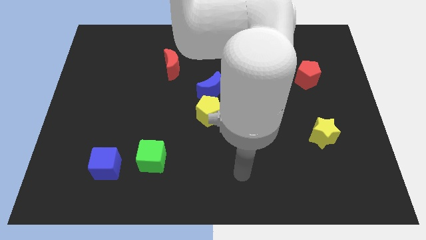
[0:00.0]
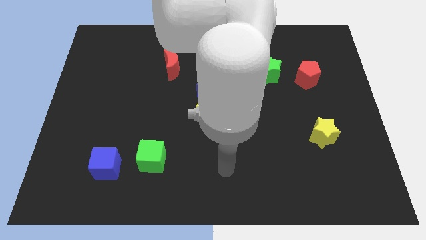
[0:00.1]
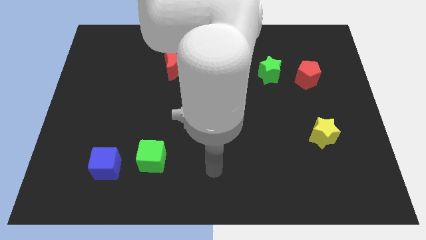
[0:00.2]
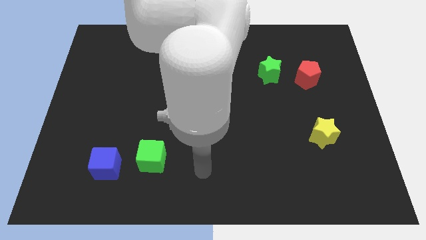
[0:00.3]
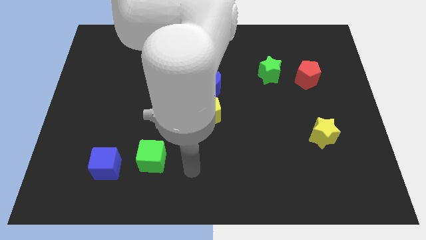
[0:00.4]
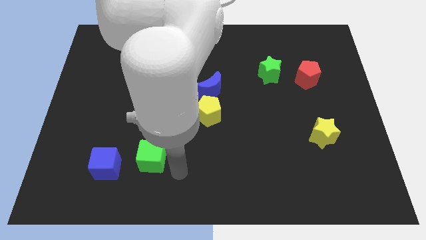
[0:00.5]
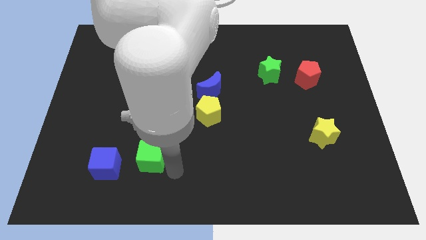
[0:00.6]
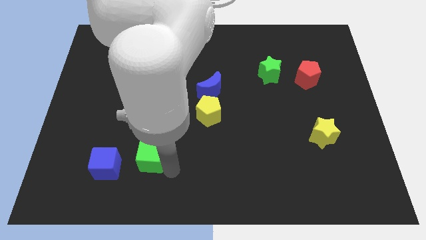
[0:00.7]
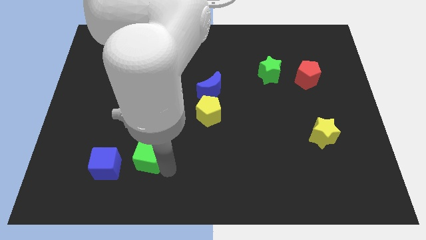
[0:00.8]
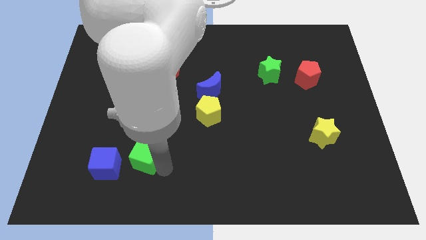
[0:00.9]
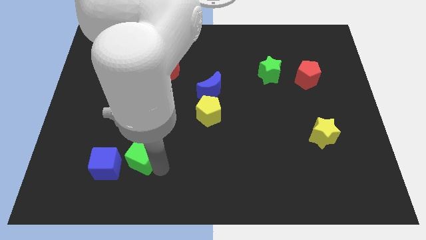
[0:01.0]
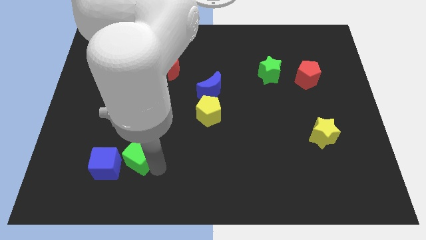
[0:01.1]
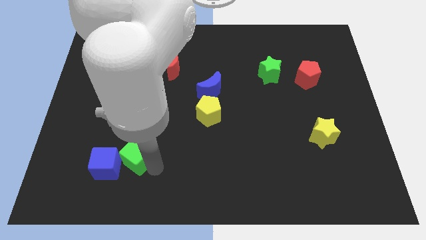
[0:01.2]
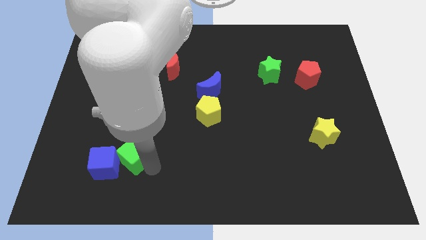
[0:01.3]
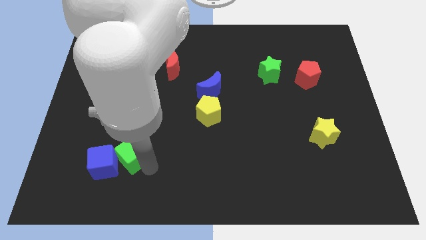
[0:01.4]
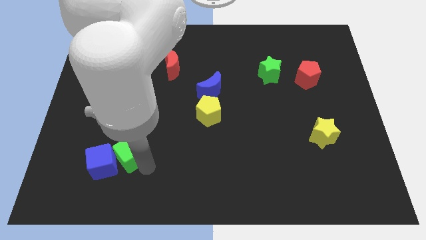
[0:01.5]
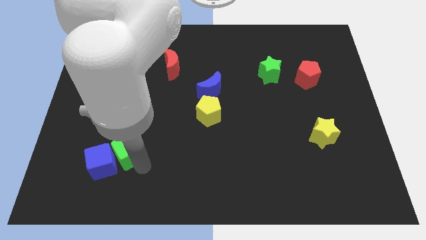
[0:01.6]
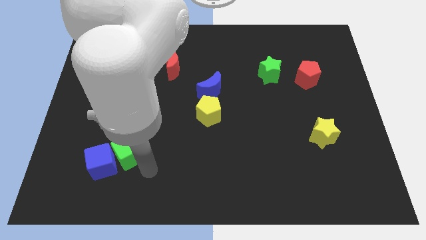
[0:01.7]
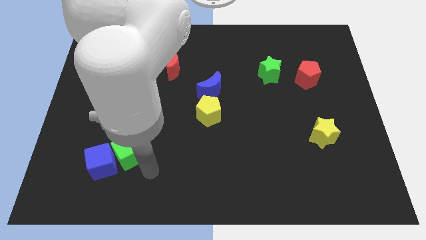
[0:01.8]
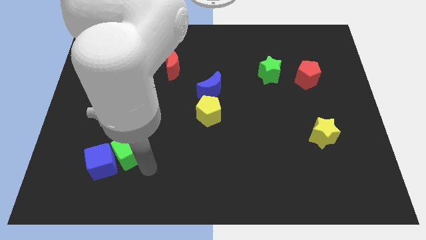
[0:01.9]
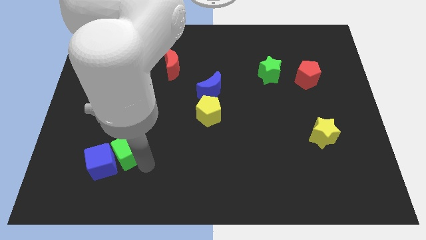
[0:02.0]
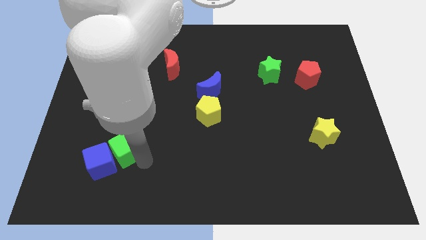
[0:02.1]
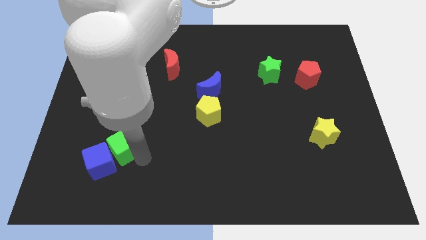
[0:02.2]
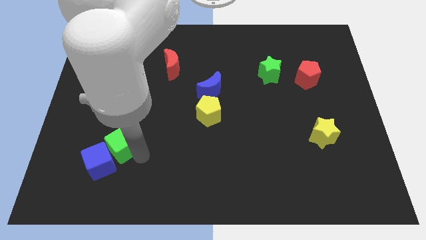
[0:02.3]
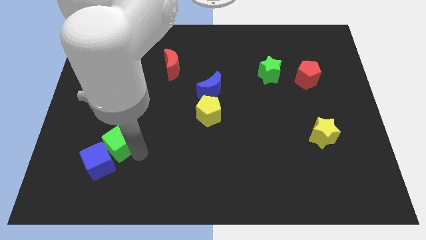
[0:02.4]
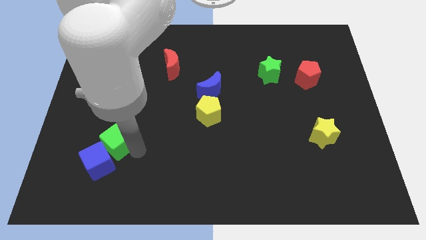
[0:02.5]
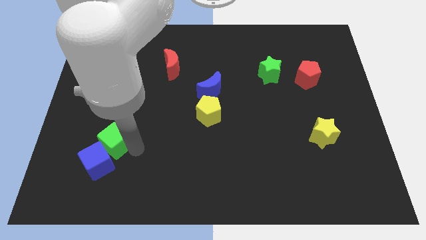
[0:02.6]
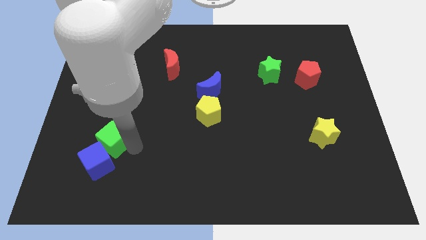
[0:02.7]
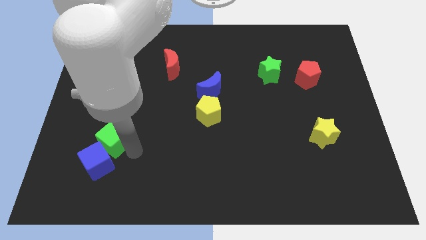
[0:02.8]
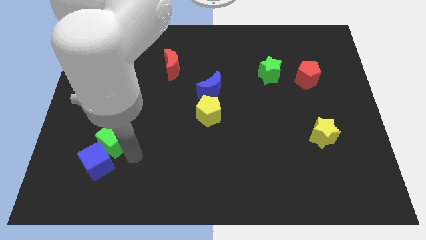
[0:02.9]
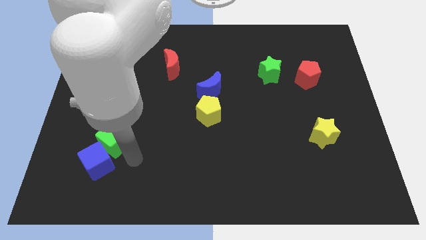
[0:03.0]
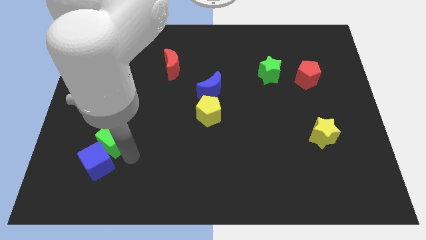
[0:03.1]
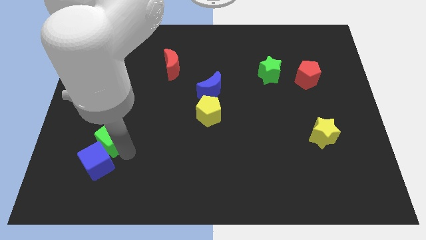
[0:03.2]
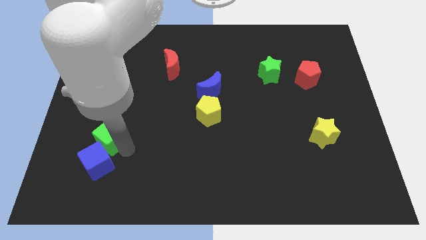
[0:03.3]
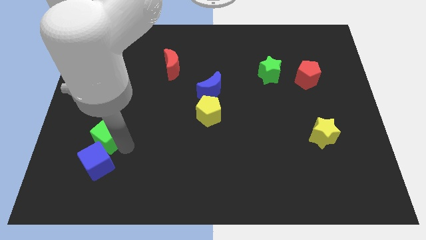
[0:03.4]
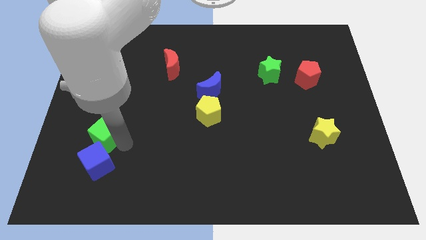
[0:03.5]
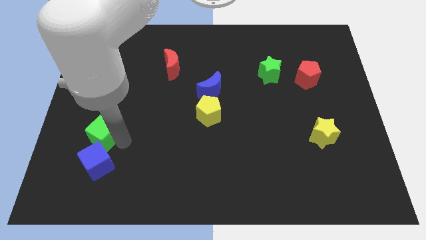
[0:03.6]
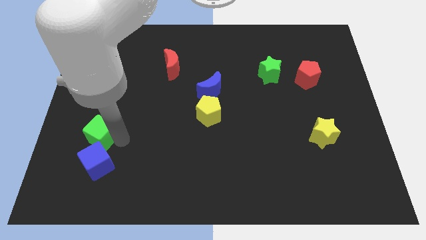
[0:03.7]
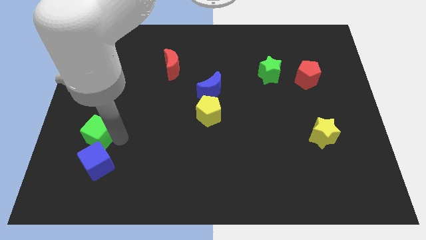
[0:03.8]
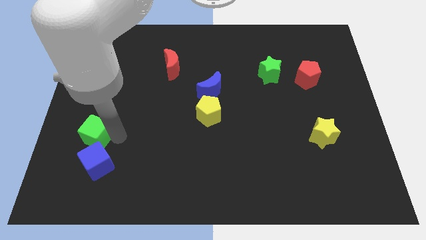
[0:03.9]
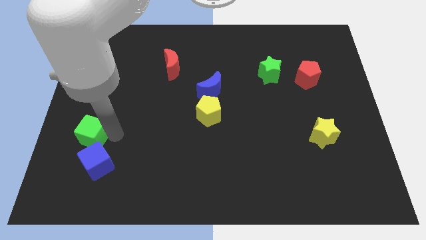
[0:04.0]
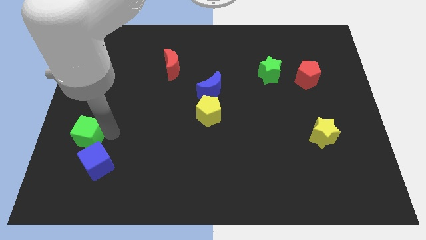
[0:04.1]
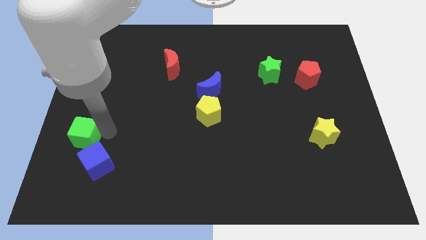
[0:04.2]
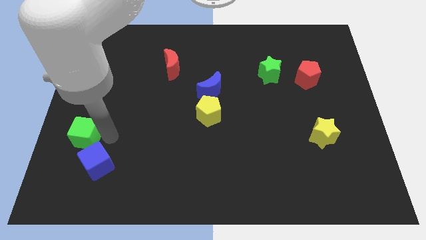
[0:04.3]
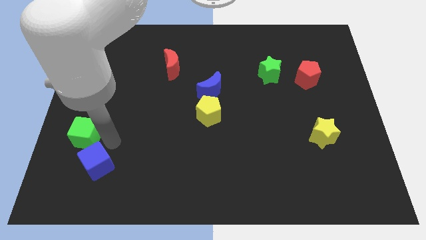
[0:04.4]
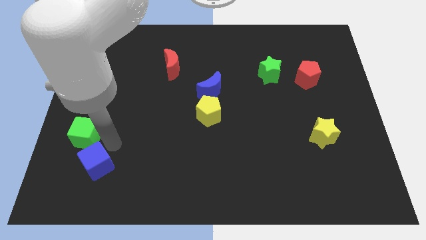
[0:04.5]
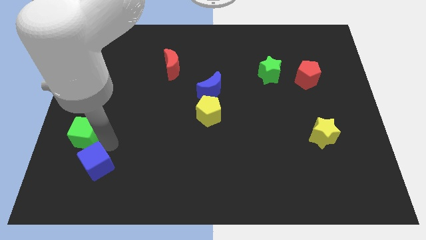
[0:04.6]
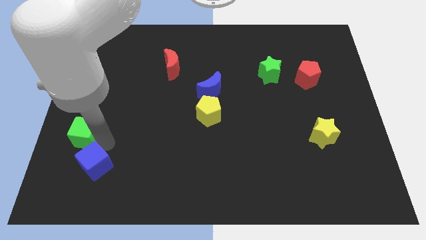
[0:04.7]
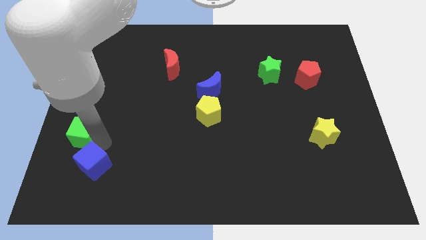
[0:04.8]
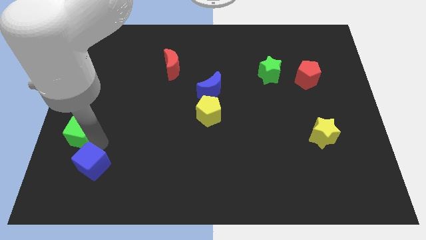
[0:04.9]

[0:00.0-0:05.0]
slide the green cube to the left side of the board
